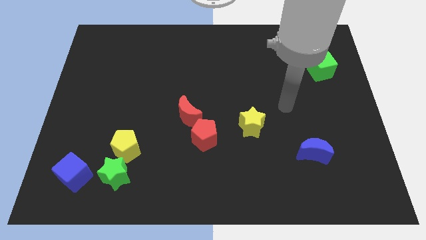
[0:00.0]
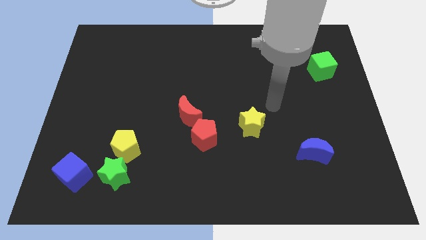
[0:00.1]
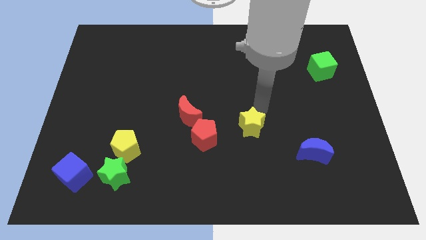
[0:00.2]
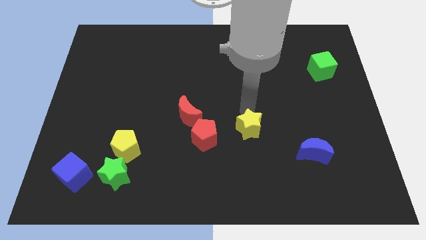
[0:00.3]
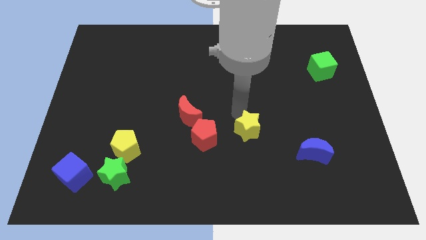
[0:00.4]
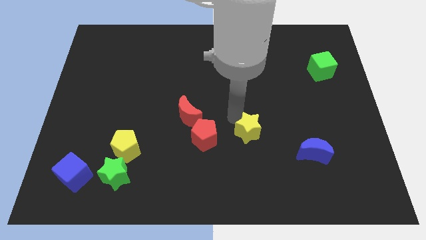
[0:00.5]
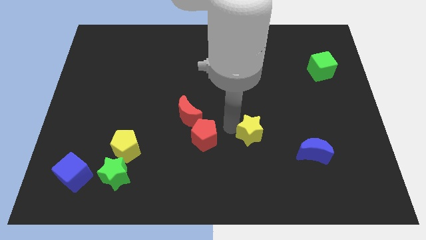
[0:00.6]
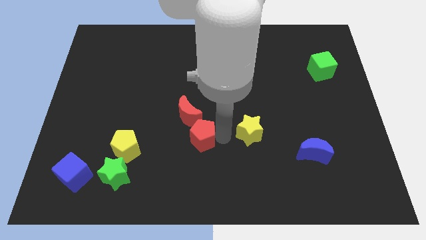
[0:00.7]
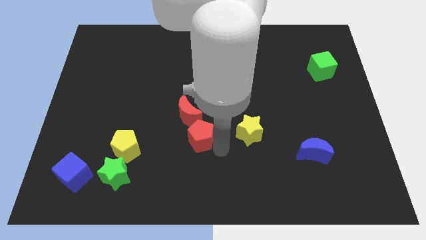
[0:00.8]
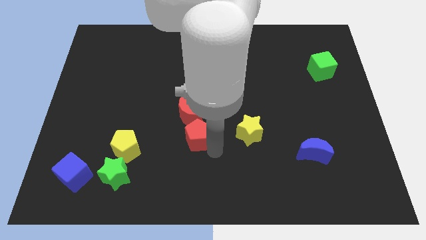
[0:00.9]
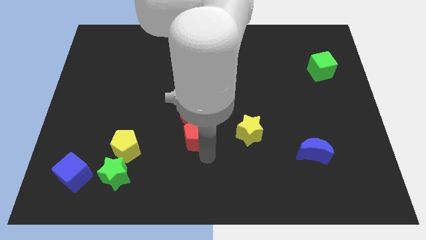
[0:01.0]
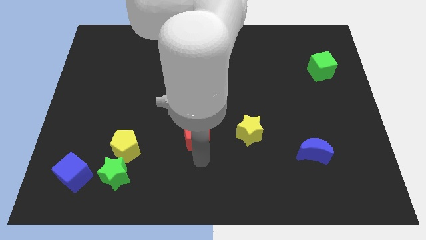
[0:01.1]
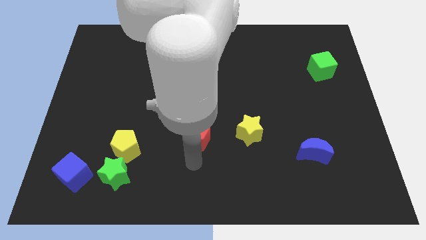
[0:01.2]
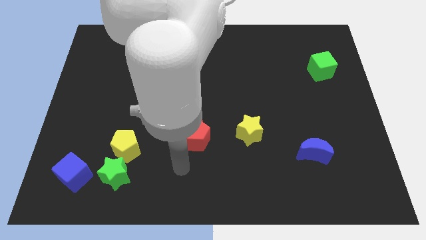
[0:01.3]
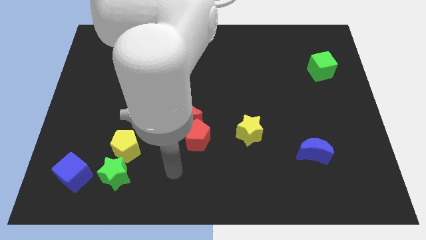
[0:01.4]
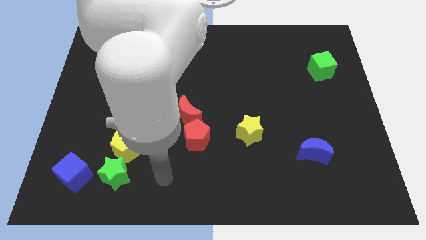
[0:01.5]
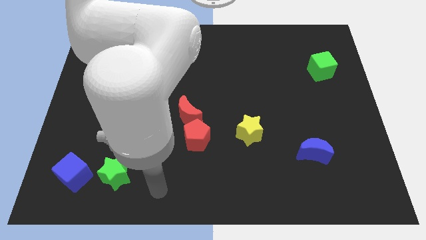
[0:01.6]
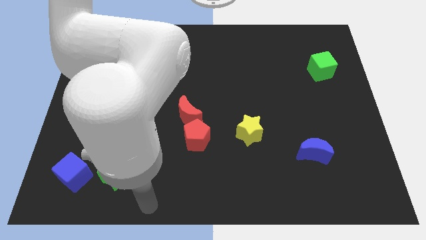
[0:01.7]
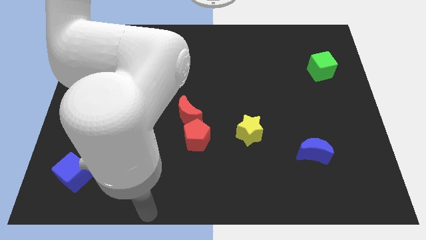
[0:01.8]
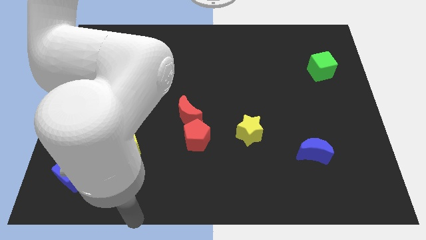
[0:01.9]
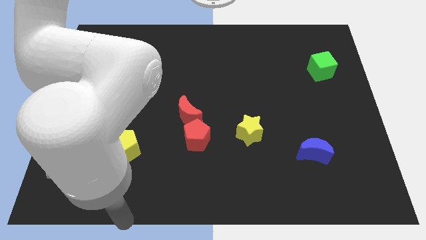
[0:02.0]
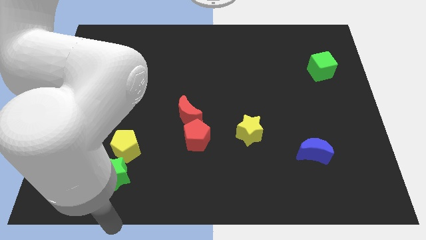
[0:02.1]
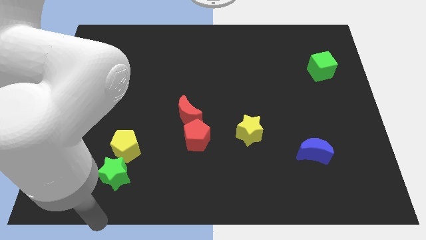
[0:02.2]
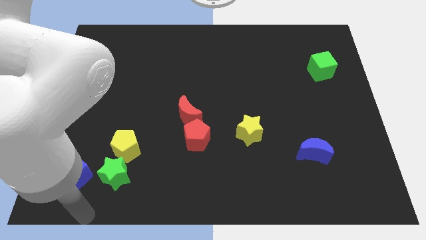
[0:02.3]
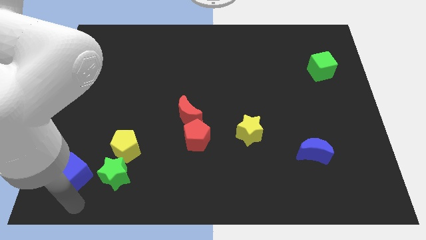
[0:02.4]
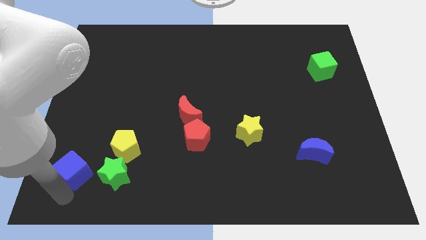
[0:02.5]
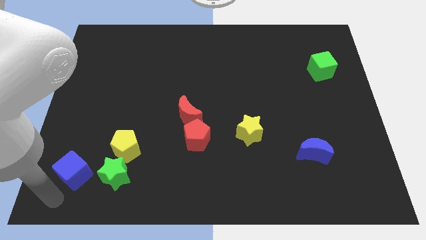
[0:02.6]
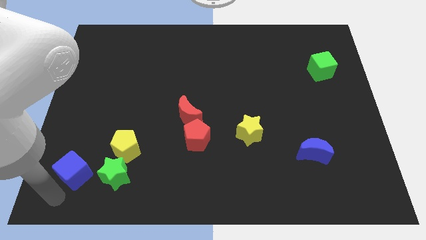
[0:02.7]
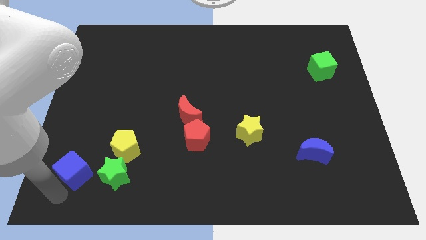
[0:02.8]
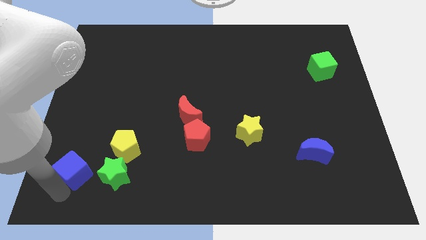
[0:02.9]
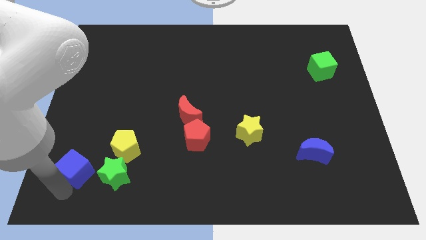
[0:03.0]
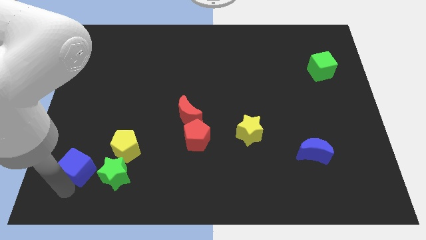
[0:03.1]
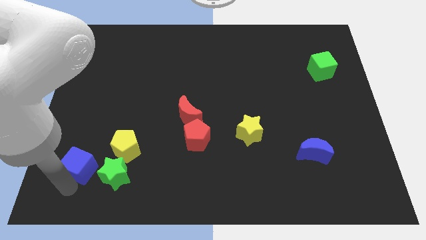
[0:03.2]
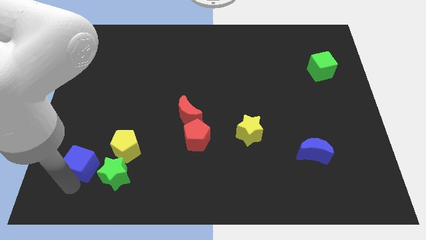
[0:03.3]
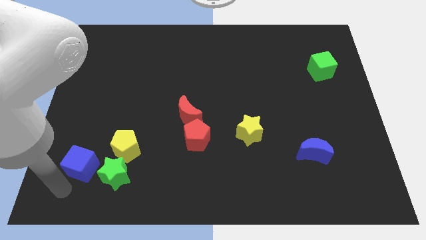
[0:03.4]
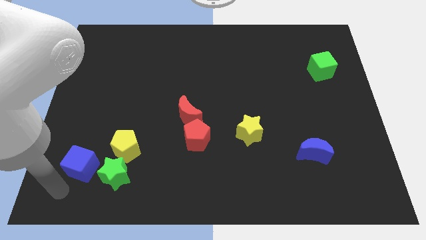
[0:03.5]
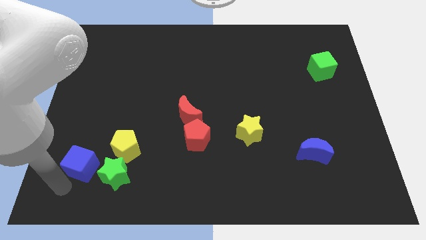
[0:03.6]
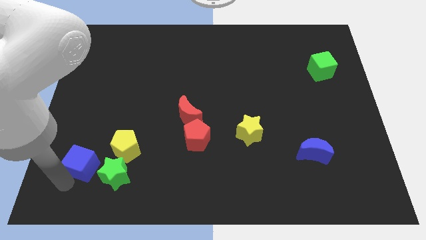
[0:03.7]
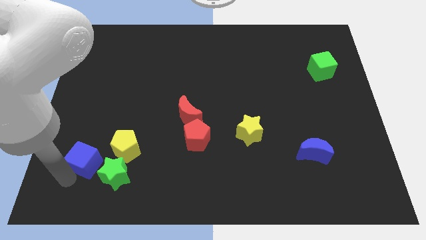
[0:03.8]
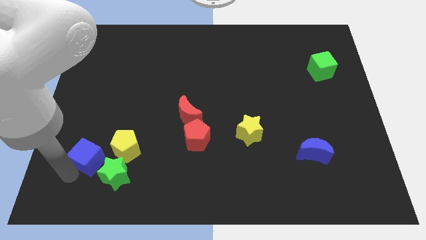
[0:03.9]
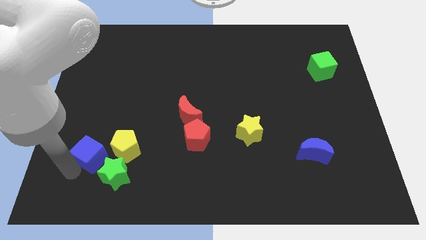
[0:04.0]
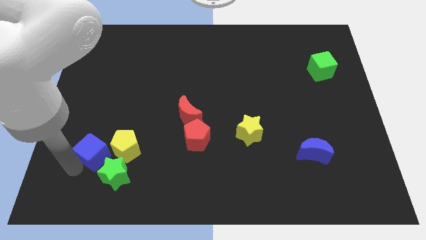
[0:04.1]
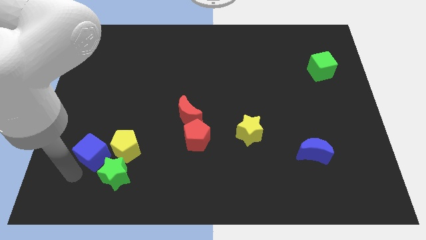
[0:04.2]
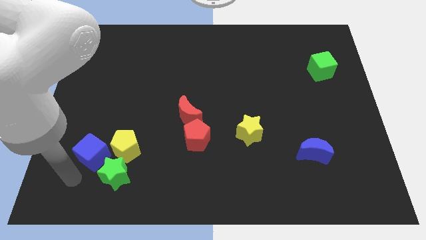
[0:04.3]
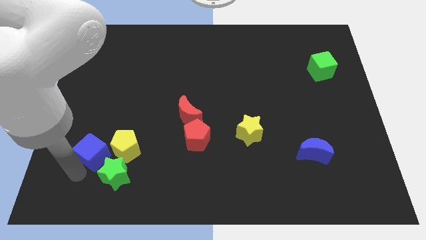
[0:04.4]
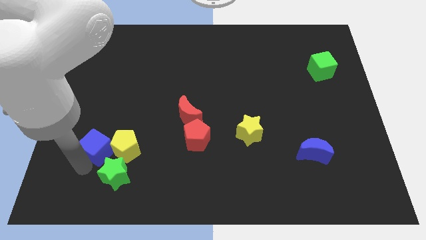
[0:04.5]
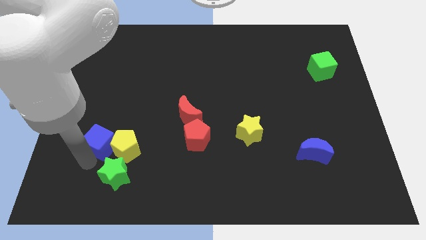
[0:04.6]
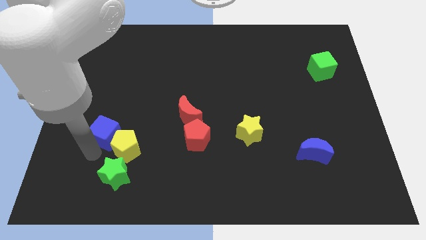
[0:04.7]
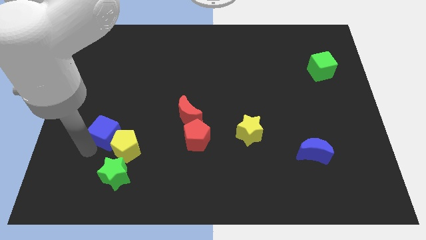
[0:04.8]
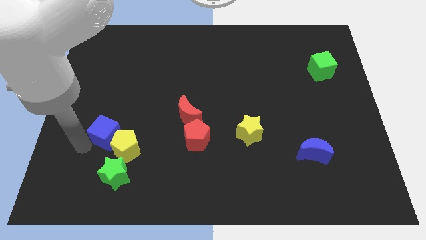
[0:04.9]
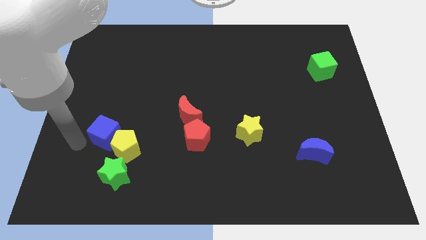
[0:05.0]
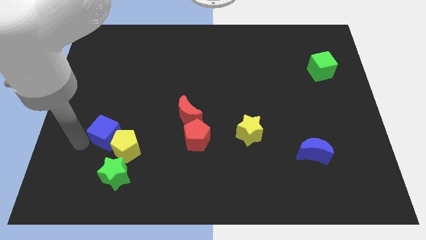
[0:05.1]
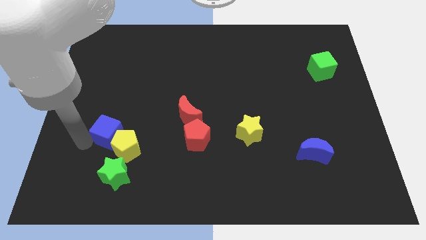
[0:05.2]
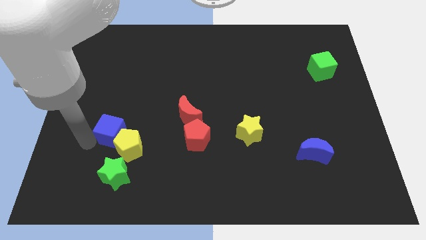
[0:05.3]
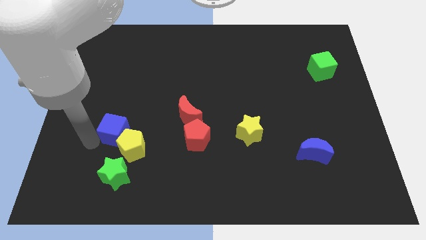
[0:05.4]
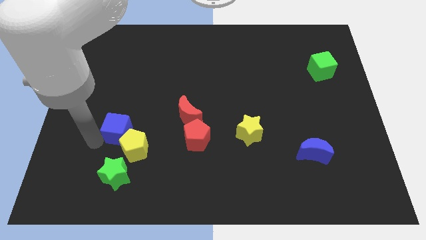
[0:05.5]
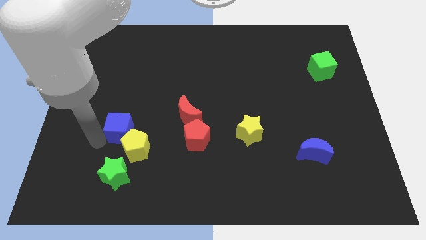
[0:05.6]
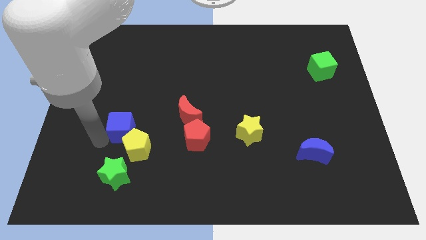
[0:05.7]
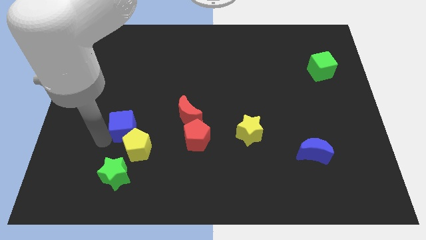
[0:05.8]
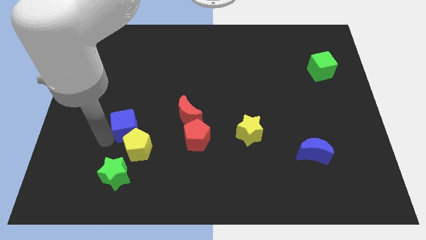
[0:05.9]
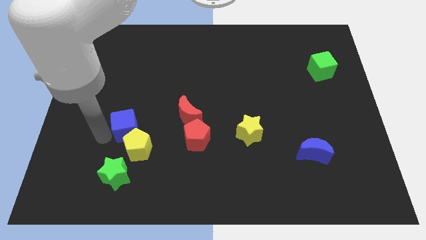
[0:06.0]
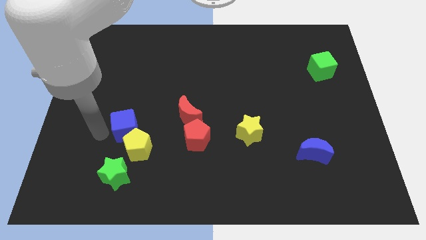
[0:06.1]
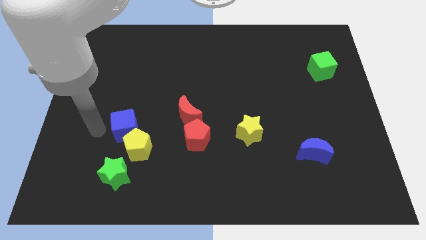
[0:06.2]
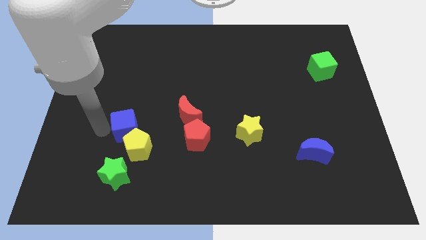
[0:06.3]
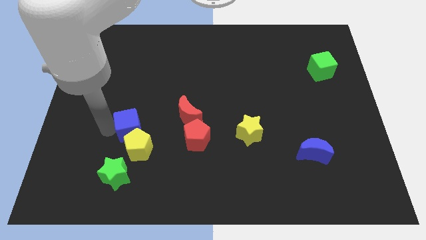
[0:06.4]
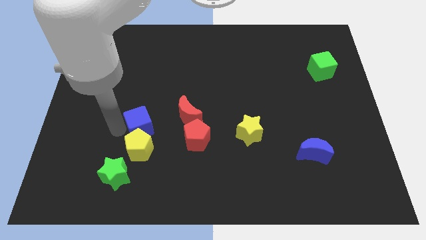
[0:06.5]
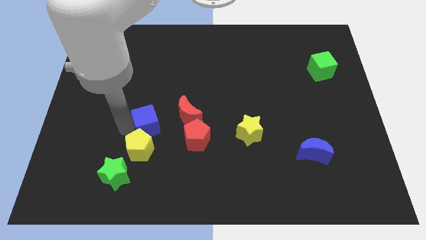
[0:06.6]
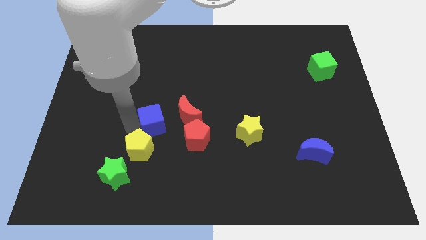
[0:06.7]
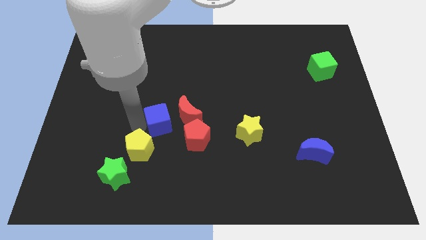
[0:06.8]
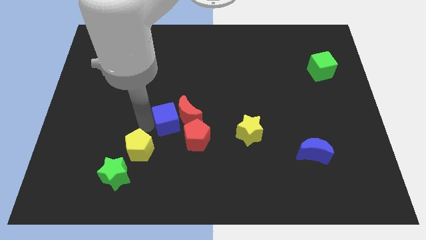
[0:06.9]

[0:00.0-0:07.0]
push the blue cube towards the red moon

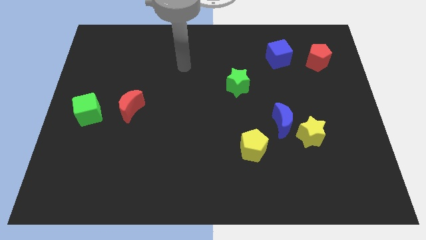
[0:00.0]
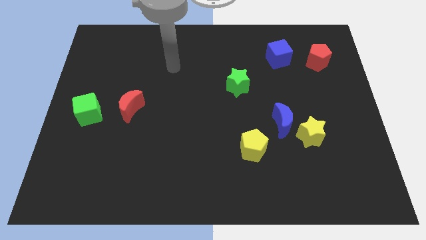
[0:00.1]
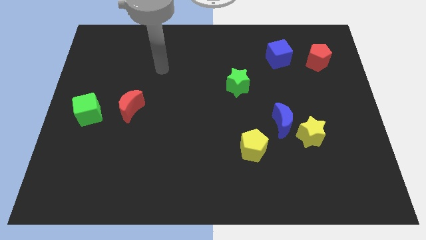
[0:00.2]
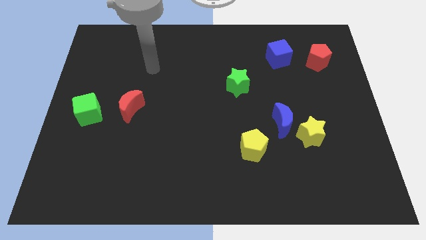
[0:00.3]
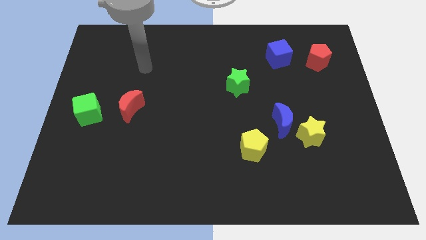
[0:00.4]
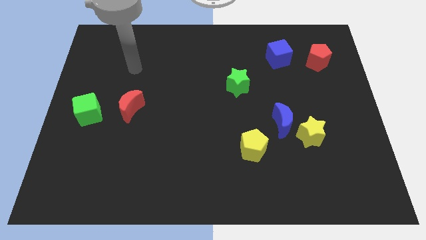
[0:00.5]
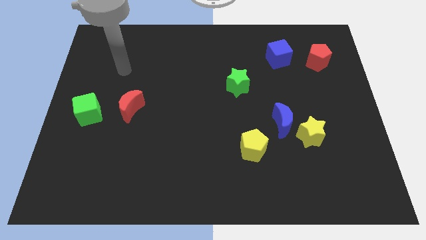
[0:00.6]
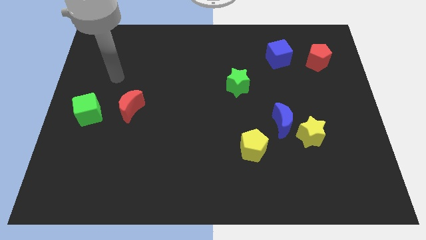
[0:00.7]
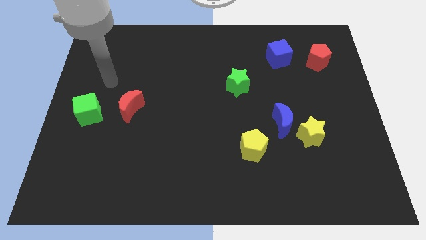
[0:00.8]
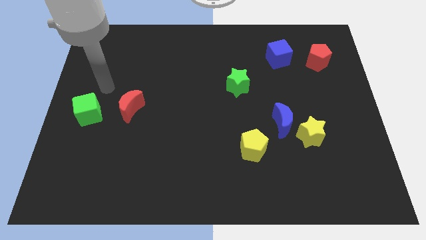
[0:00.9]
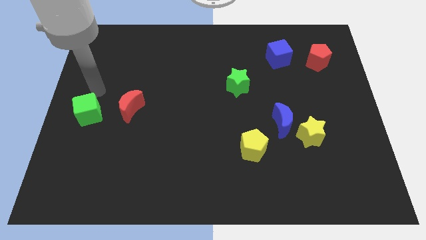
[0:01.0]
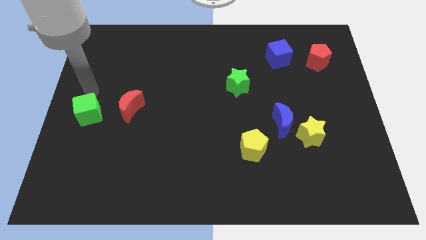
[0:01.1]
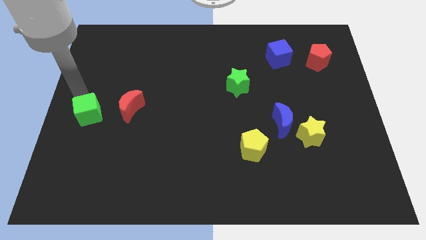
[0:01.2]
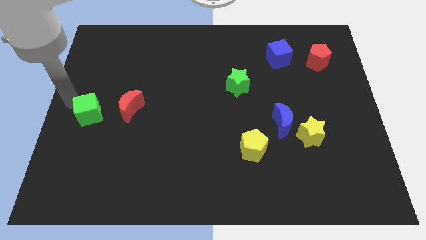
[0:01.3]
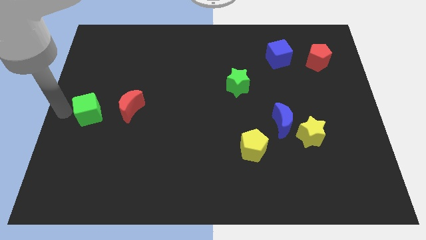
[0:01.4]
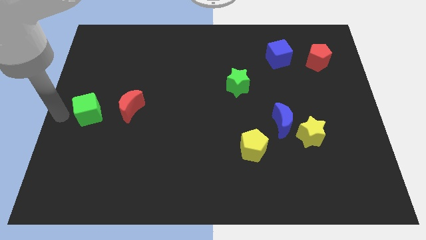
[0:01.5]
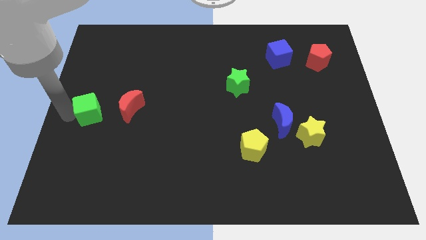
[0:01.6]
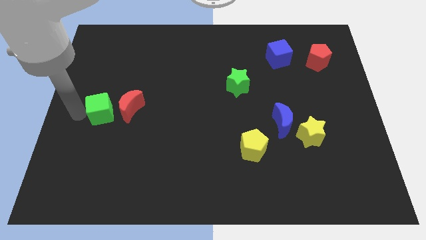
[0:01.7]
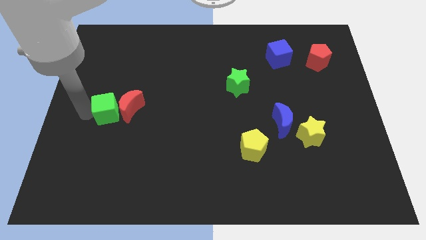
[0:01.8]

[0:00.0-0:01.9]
slide the green cube to the red moon
